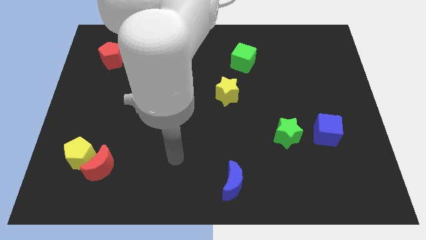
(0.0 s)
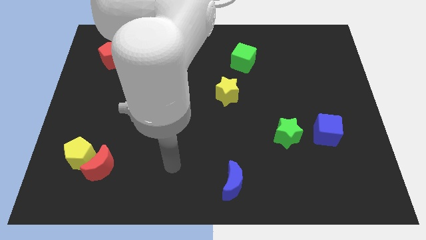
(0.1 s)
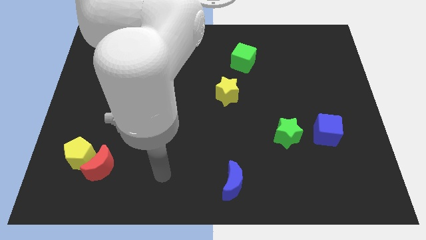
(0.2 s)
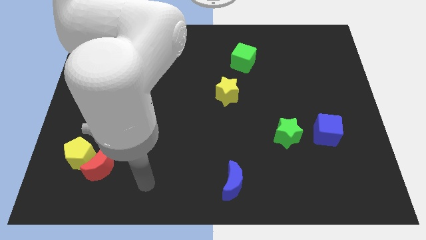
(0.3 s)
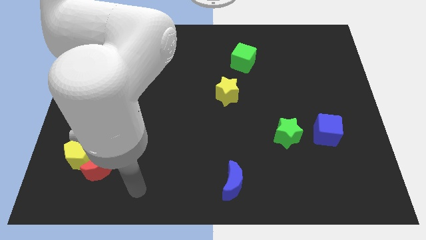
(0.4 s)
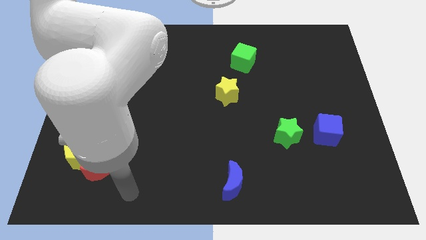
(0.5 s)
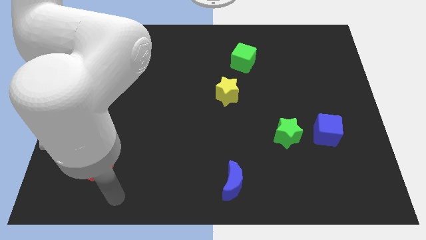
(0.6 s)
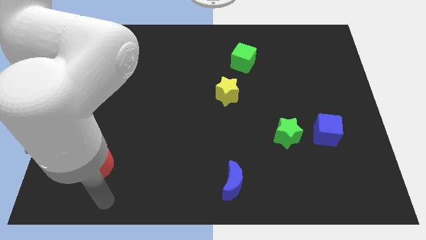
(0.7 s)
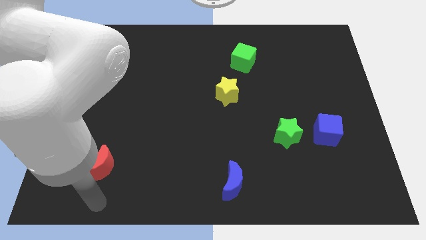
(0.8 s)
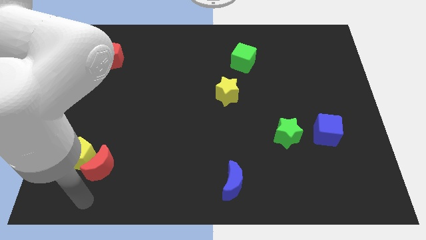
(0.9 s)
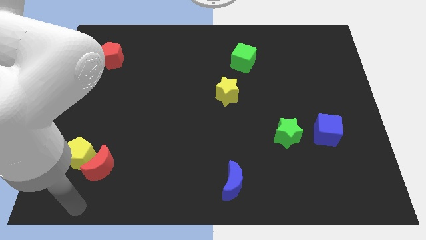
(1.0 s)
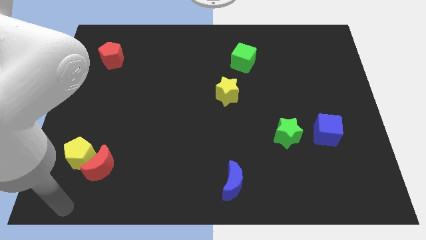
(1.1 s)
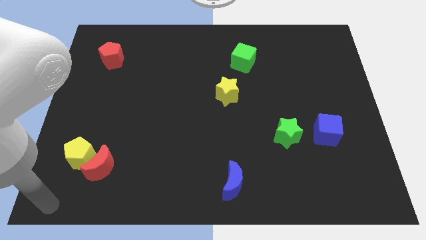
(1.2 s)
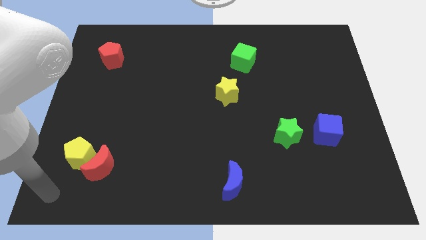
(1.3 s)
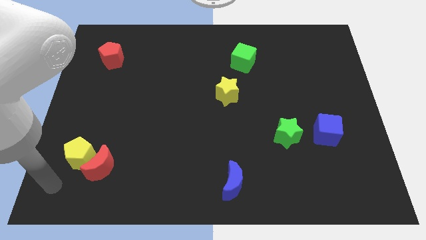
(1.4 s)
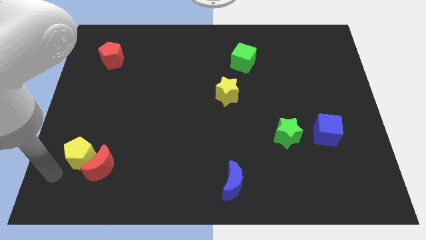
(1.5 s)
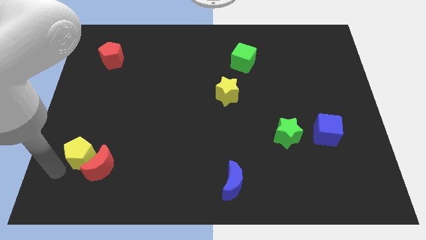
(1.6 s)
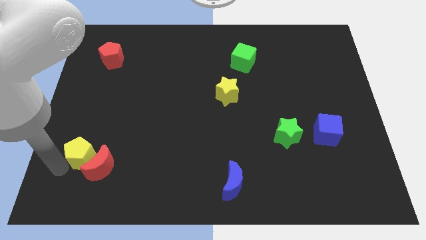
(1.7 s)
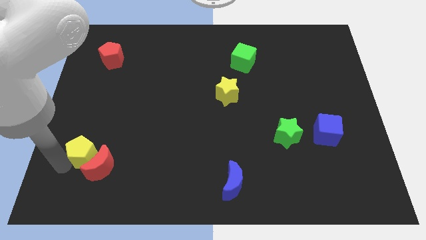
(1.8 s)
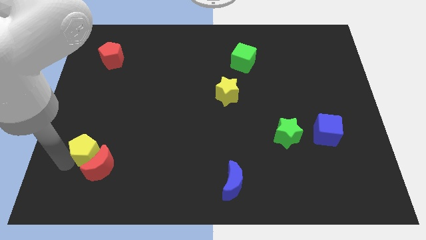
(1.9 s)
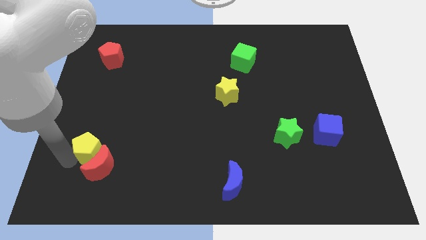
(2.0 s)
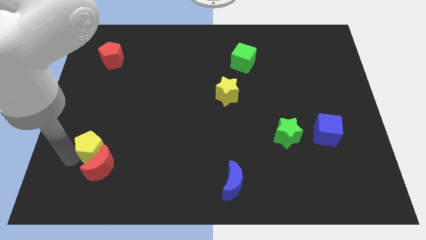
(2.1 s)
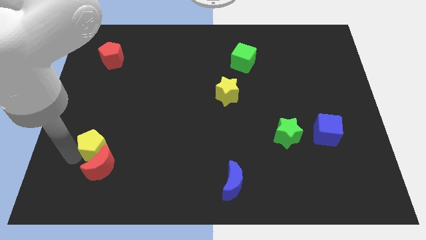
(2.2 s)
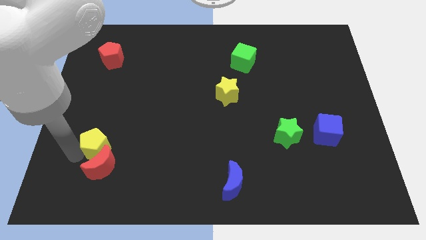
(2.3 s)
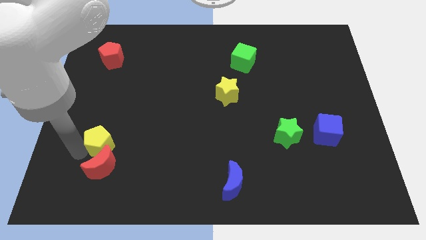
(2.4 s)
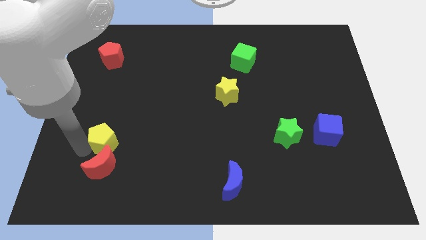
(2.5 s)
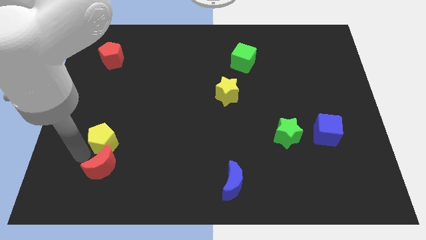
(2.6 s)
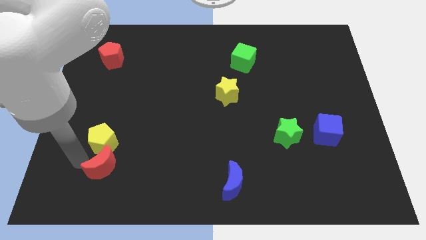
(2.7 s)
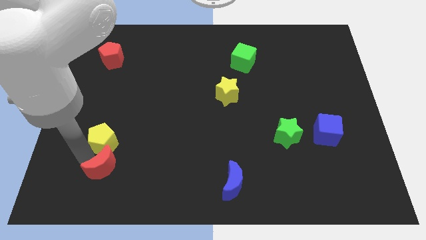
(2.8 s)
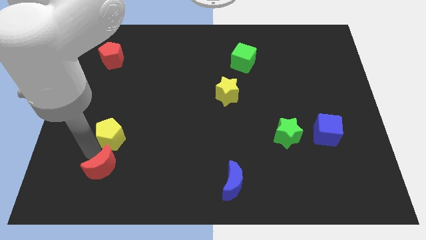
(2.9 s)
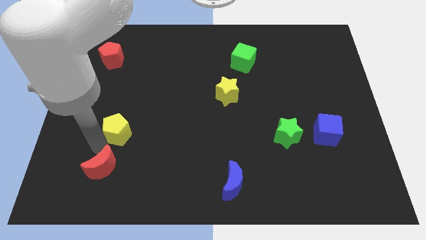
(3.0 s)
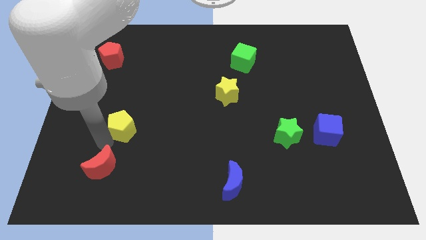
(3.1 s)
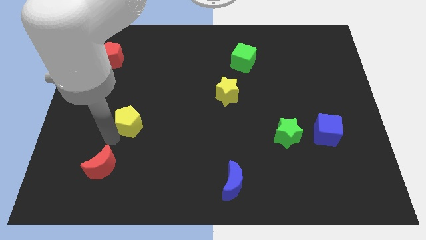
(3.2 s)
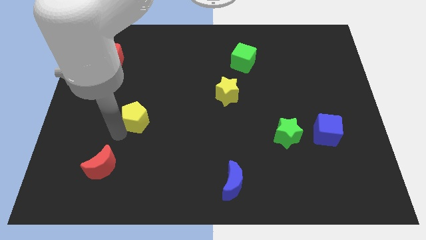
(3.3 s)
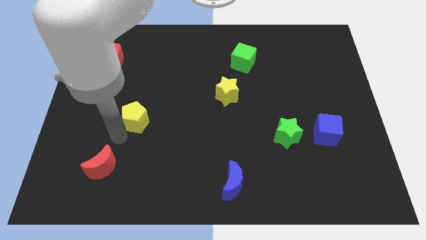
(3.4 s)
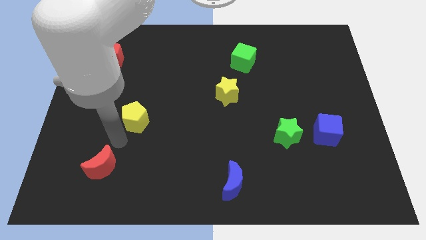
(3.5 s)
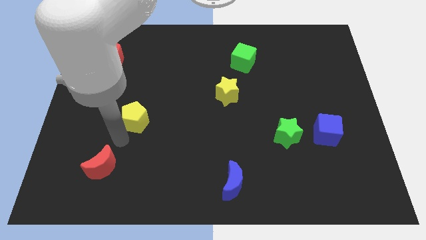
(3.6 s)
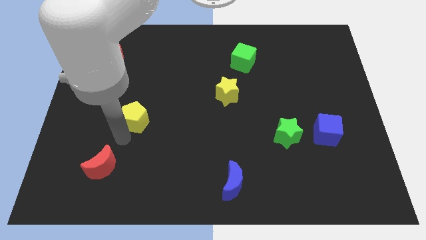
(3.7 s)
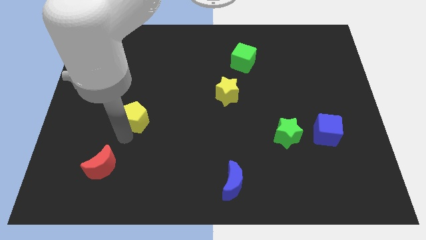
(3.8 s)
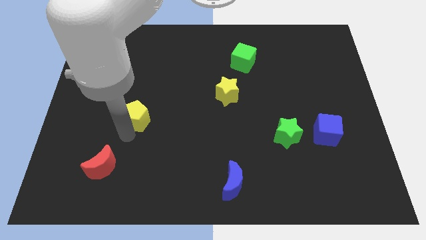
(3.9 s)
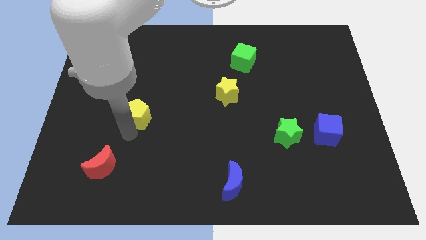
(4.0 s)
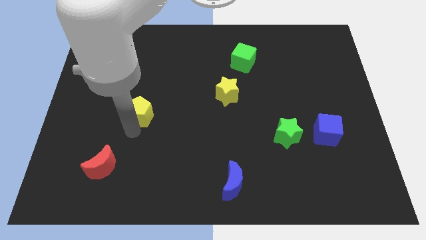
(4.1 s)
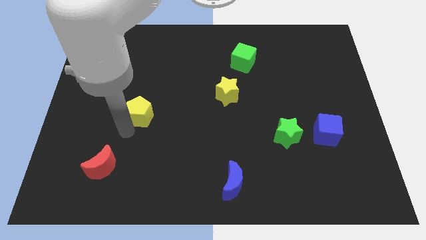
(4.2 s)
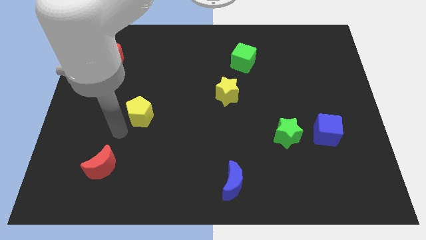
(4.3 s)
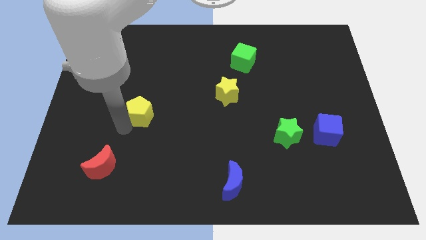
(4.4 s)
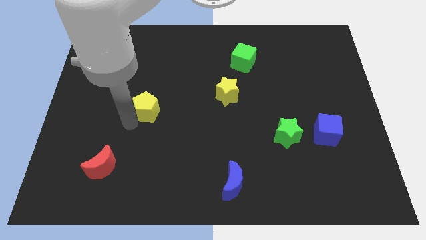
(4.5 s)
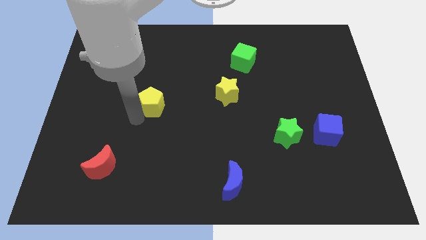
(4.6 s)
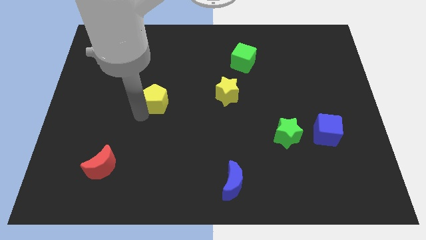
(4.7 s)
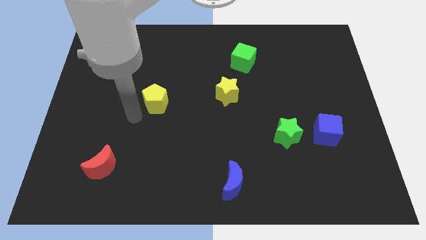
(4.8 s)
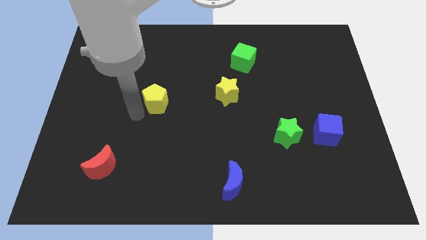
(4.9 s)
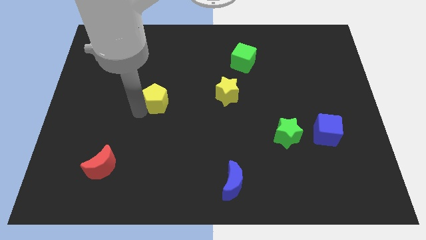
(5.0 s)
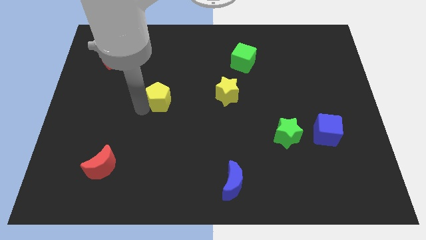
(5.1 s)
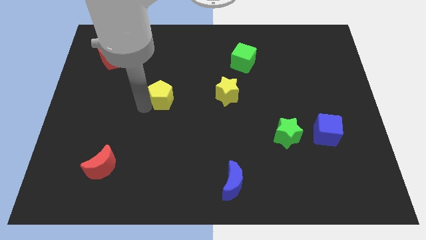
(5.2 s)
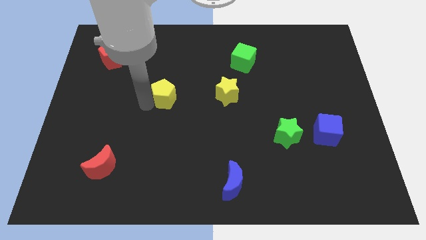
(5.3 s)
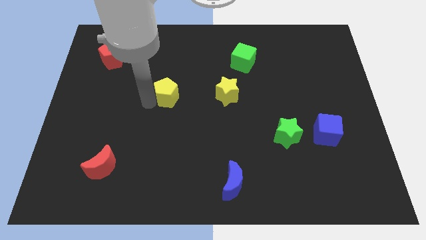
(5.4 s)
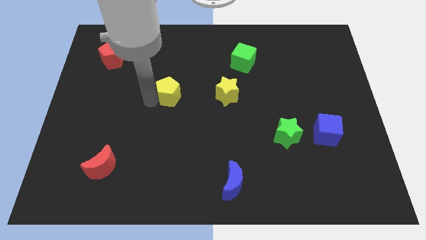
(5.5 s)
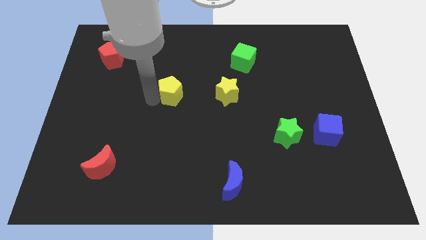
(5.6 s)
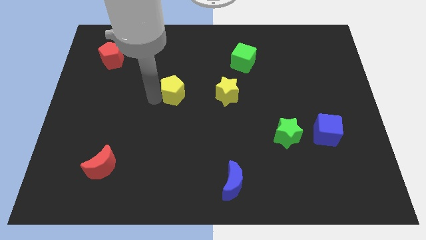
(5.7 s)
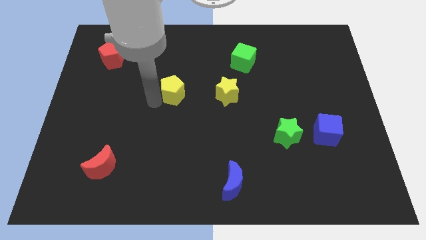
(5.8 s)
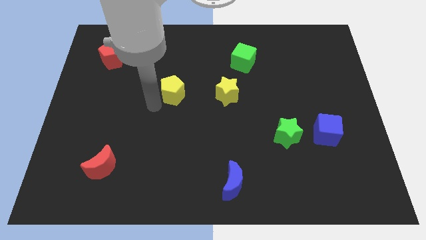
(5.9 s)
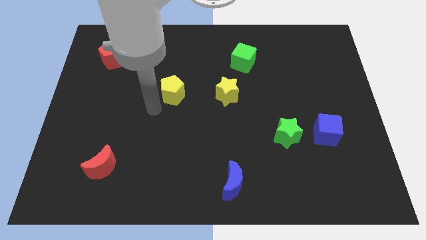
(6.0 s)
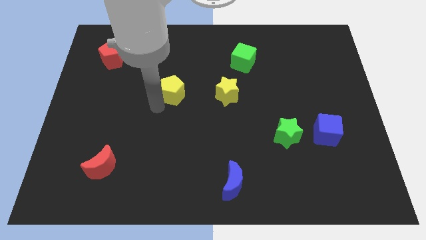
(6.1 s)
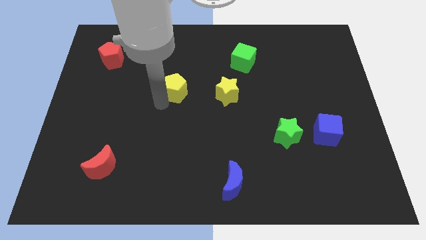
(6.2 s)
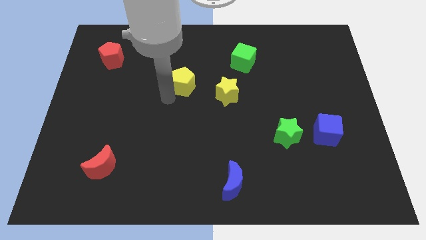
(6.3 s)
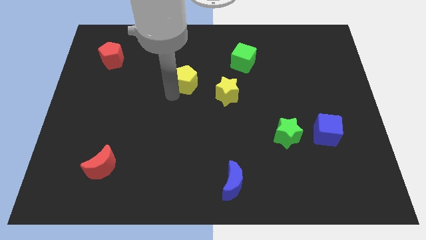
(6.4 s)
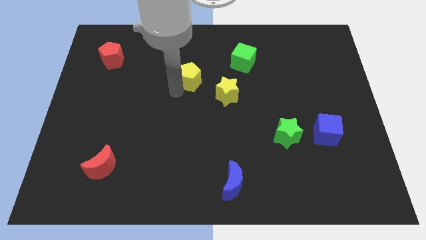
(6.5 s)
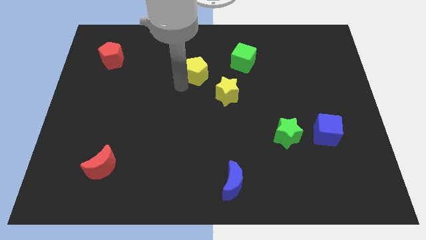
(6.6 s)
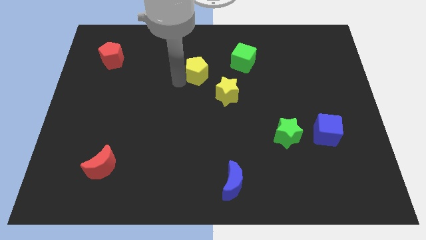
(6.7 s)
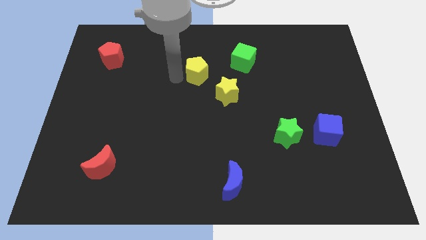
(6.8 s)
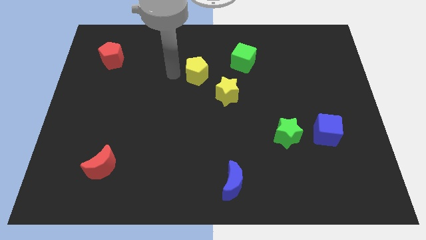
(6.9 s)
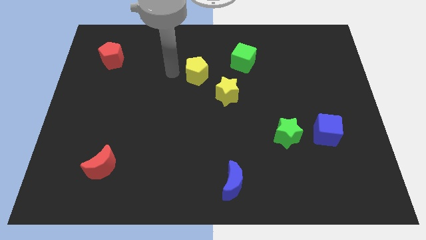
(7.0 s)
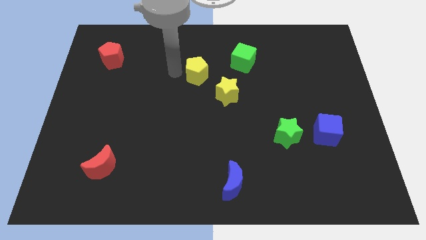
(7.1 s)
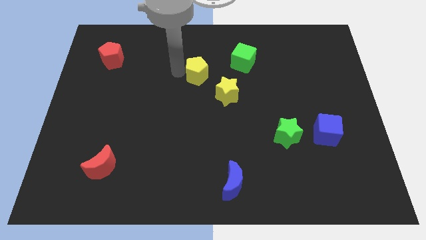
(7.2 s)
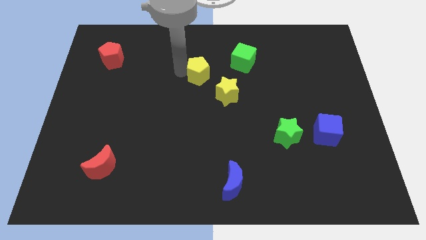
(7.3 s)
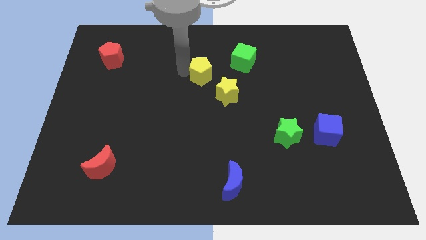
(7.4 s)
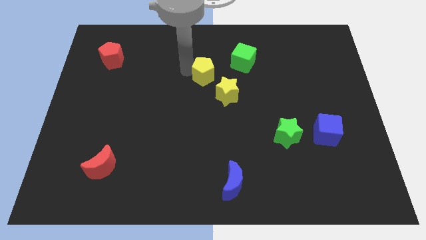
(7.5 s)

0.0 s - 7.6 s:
put the yellow pentagon to the bottom left side of the green cube
